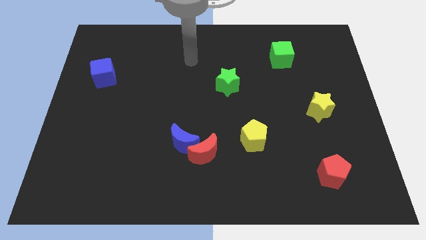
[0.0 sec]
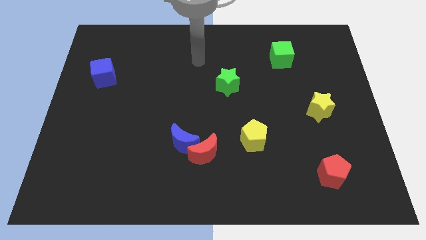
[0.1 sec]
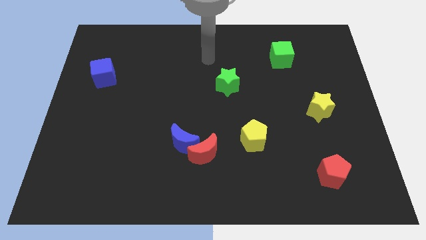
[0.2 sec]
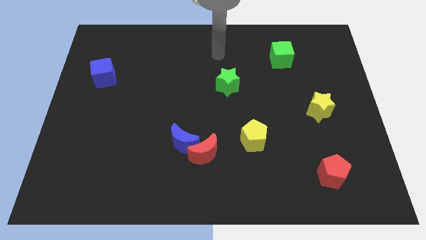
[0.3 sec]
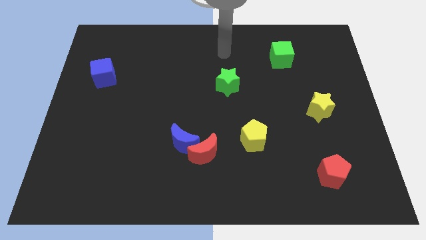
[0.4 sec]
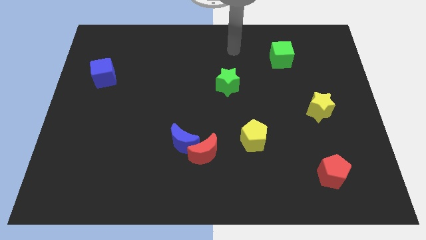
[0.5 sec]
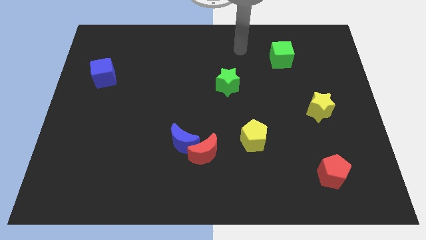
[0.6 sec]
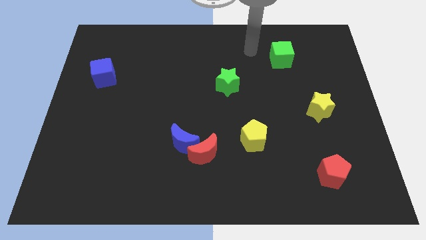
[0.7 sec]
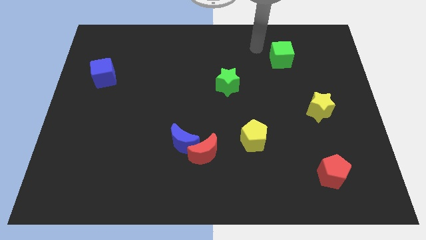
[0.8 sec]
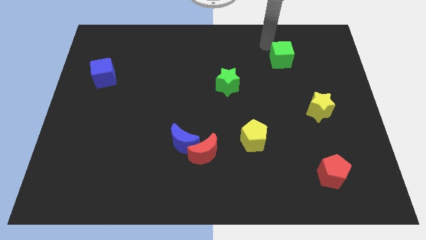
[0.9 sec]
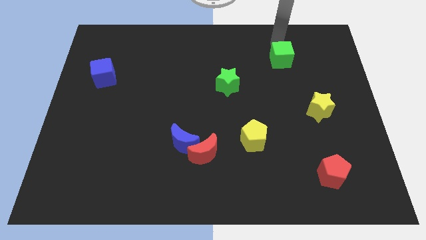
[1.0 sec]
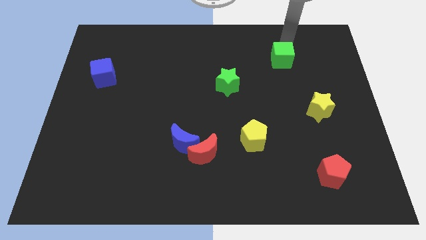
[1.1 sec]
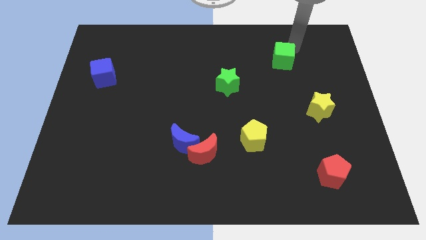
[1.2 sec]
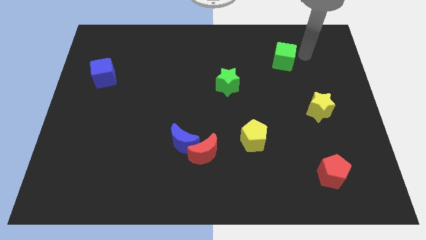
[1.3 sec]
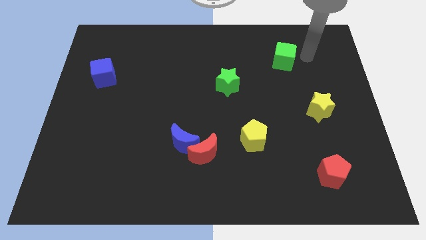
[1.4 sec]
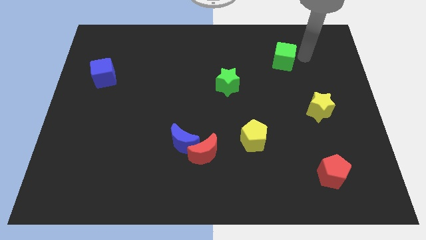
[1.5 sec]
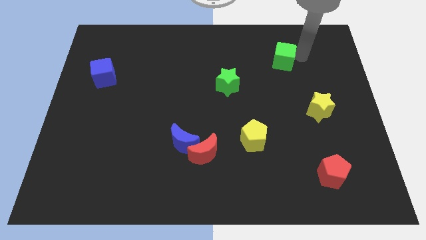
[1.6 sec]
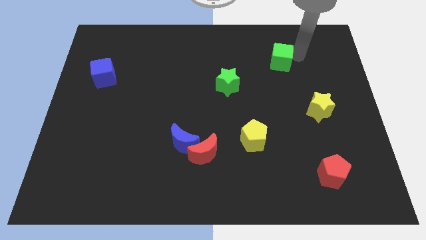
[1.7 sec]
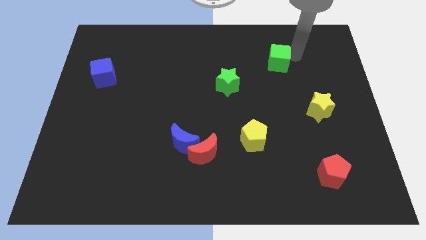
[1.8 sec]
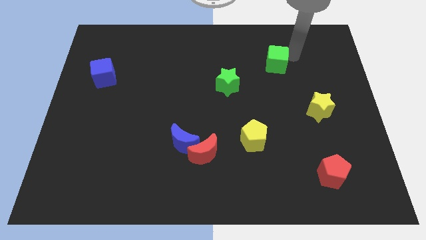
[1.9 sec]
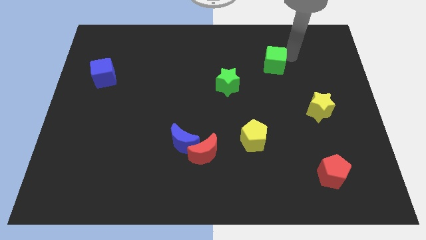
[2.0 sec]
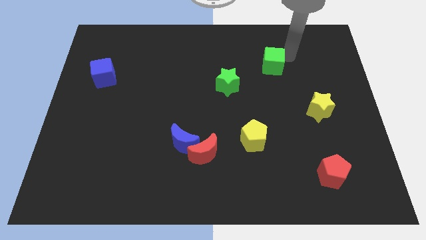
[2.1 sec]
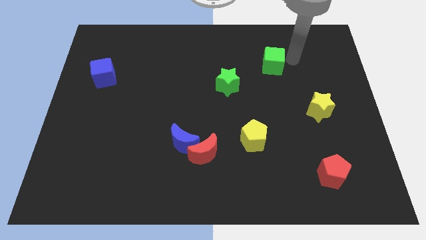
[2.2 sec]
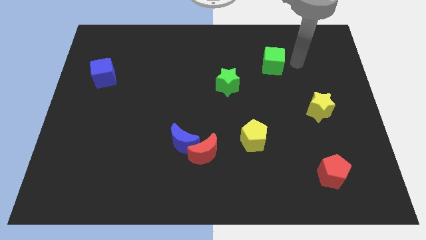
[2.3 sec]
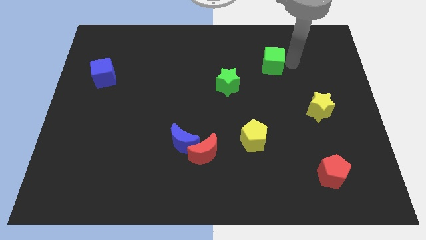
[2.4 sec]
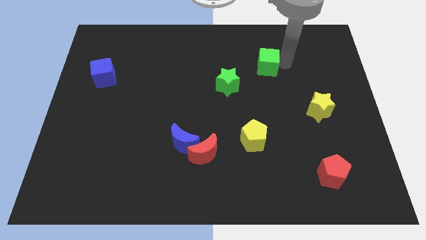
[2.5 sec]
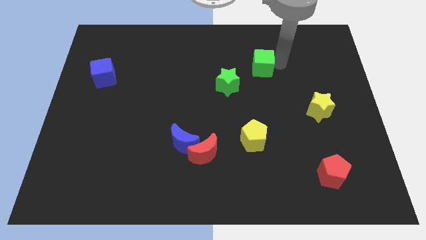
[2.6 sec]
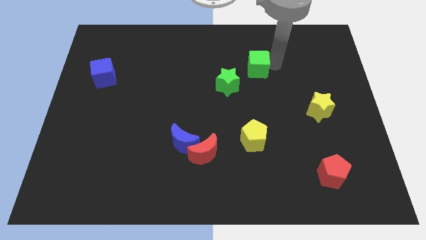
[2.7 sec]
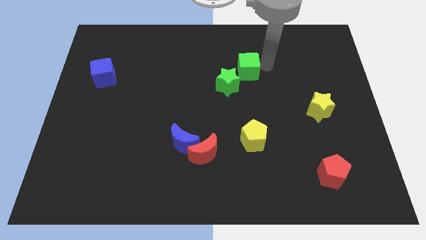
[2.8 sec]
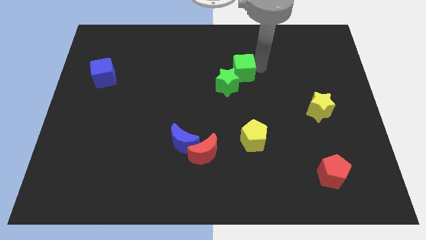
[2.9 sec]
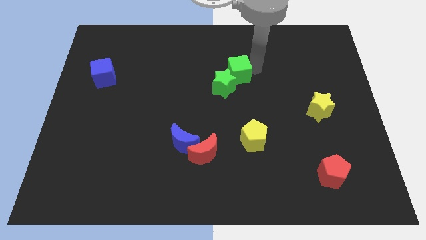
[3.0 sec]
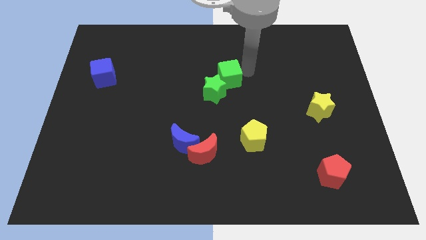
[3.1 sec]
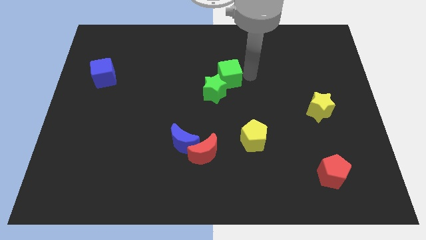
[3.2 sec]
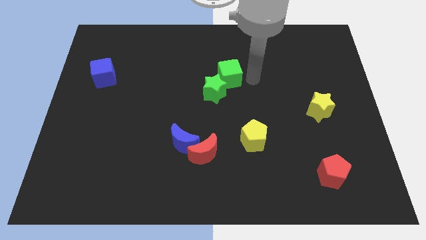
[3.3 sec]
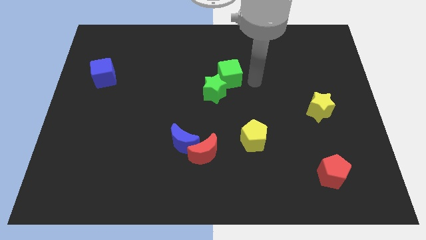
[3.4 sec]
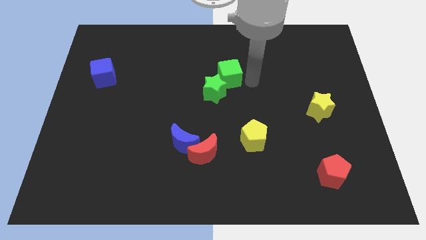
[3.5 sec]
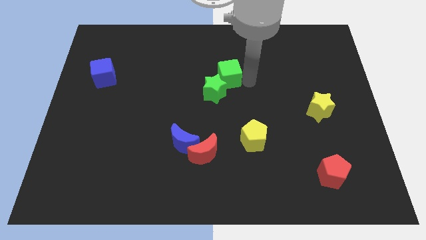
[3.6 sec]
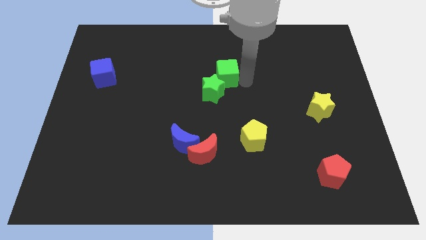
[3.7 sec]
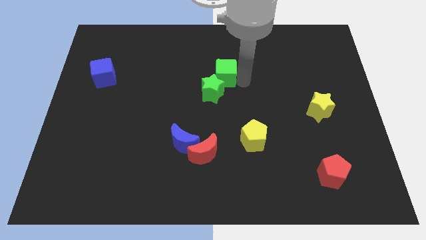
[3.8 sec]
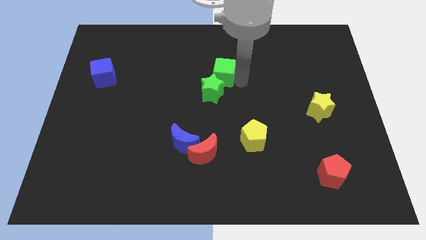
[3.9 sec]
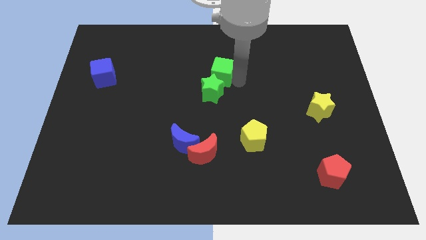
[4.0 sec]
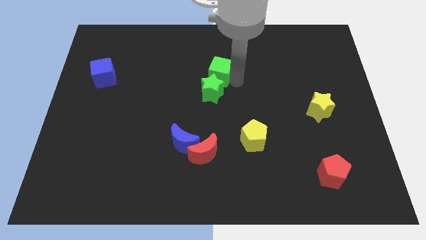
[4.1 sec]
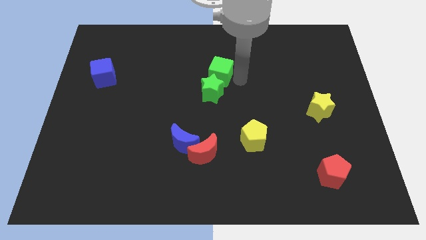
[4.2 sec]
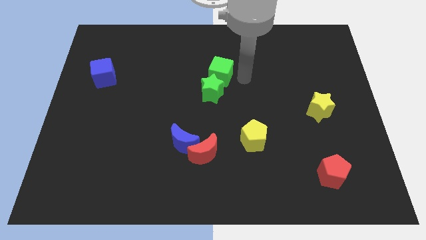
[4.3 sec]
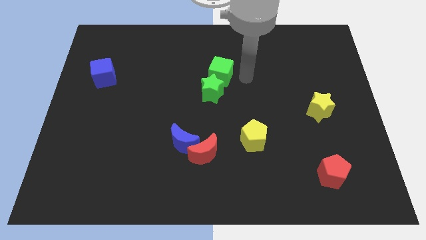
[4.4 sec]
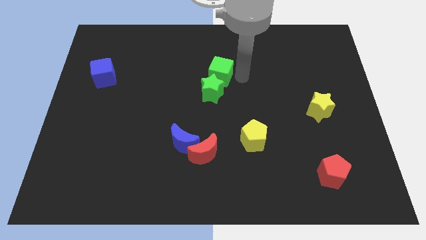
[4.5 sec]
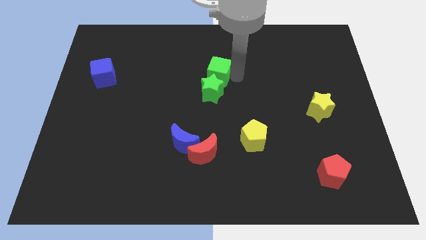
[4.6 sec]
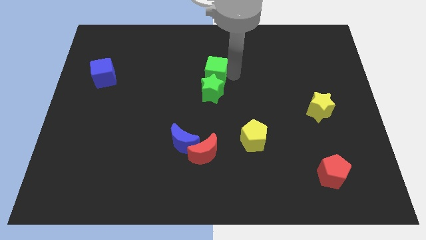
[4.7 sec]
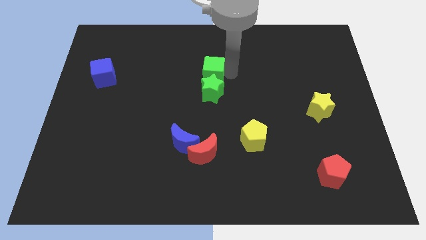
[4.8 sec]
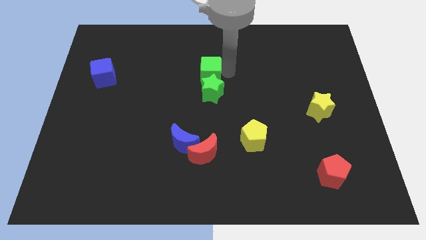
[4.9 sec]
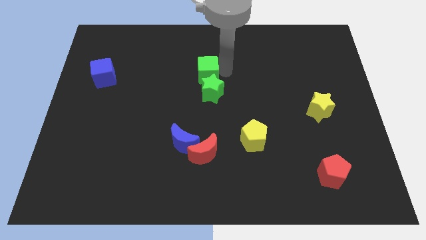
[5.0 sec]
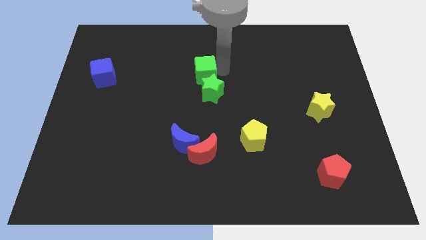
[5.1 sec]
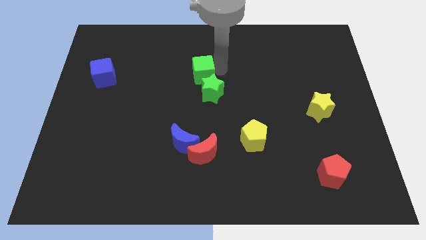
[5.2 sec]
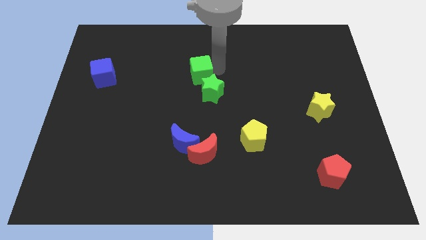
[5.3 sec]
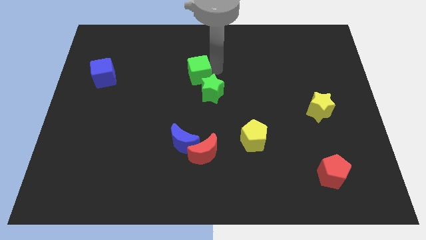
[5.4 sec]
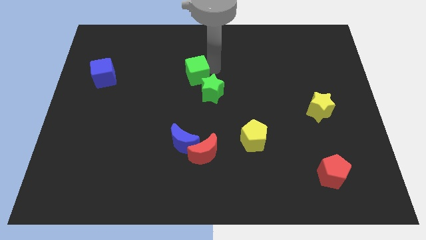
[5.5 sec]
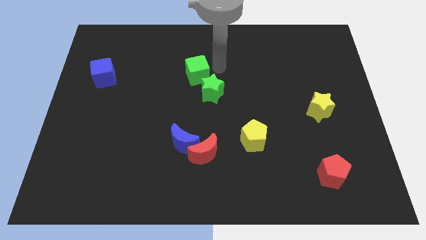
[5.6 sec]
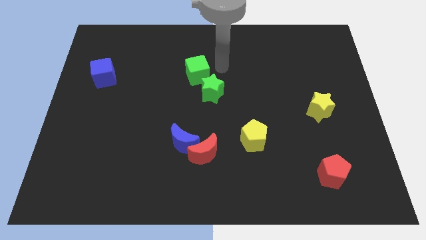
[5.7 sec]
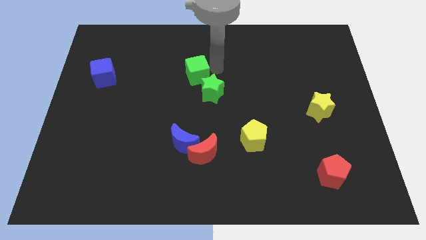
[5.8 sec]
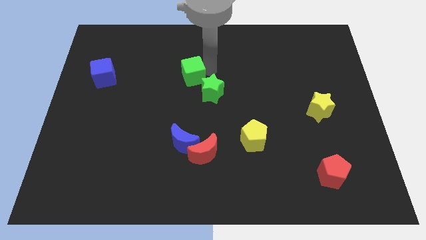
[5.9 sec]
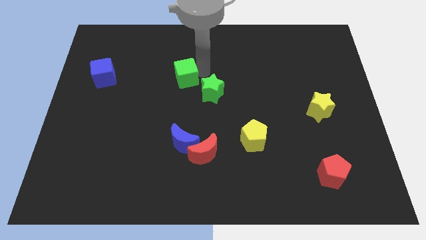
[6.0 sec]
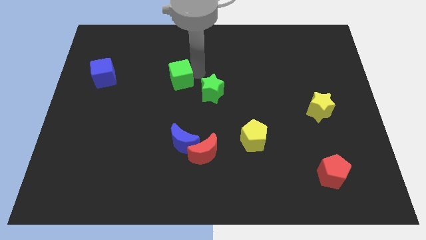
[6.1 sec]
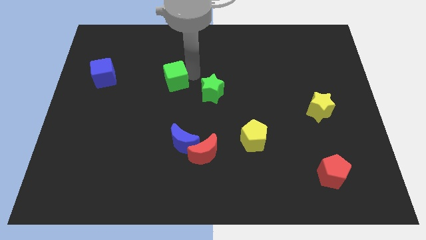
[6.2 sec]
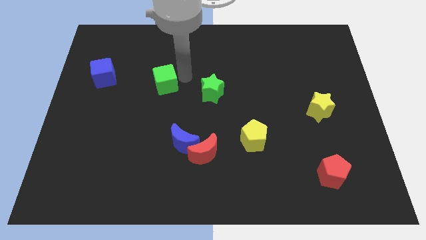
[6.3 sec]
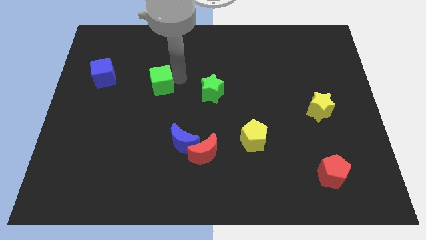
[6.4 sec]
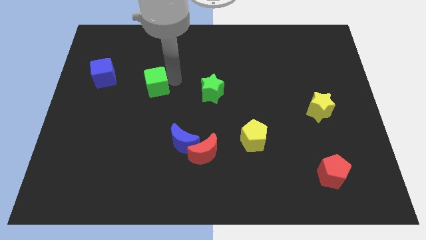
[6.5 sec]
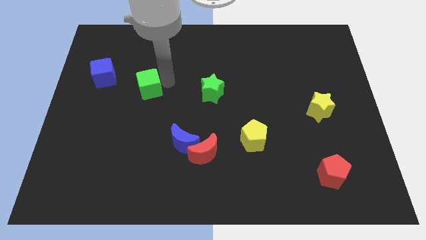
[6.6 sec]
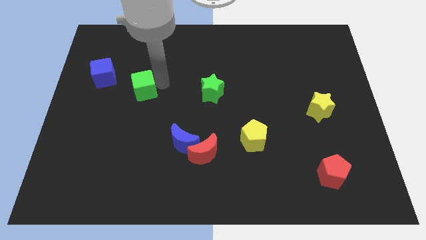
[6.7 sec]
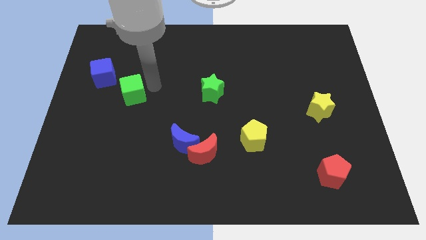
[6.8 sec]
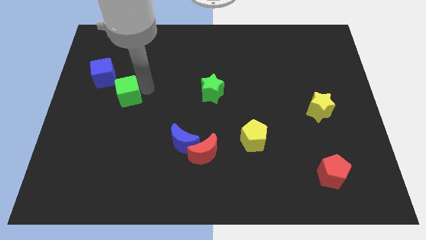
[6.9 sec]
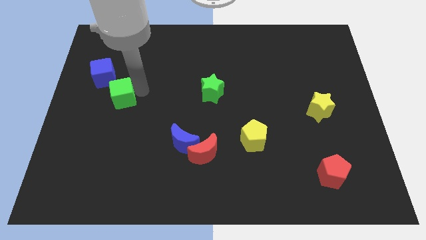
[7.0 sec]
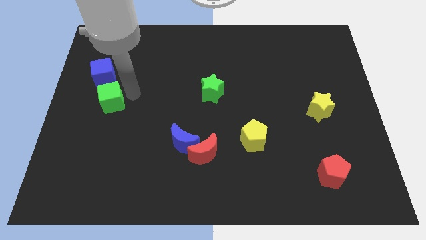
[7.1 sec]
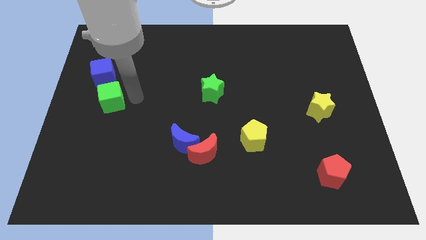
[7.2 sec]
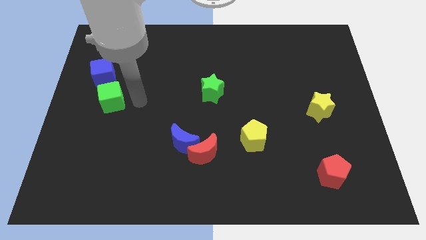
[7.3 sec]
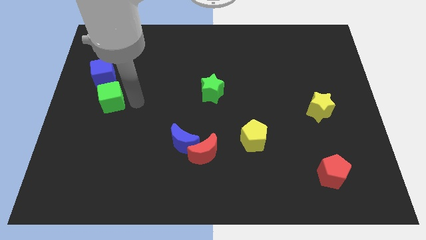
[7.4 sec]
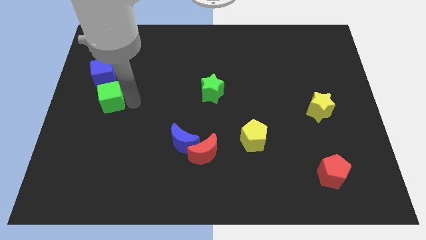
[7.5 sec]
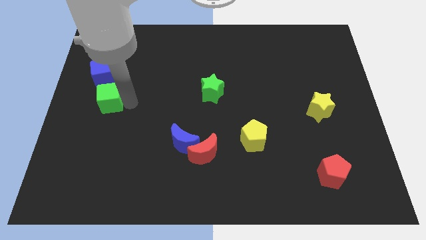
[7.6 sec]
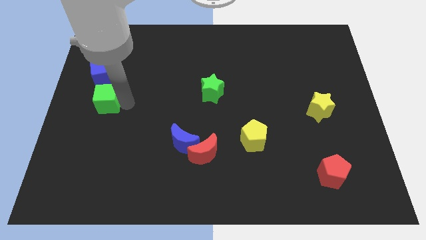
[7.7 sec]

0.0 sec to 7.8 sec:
slide the green cube to the left side
